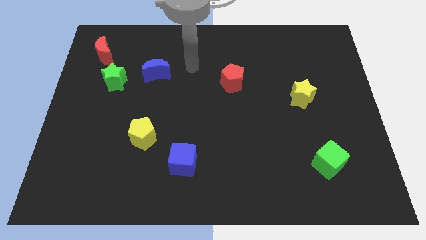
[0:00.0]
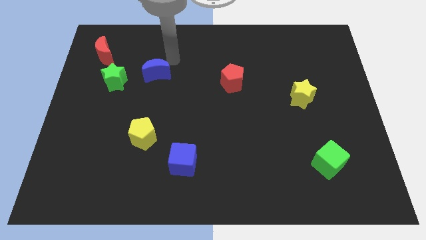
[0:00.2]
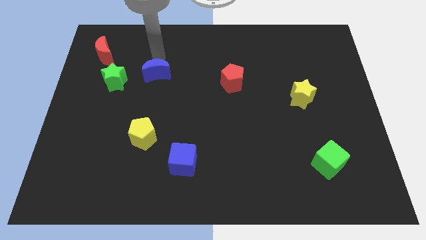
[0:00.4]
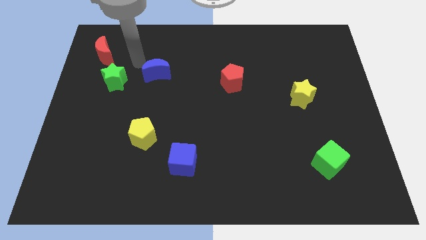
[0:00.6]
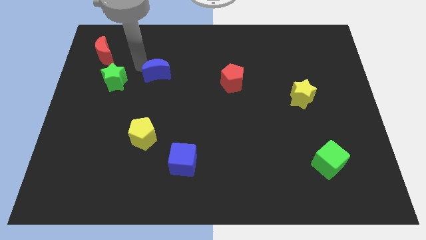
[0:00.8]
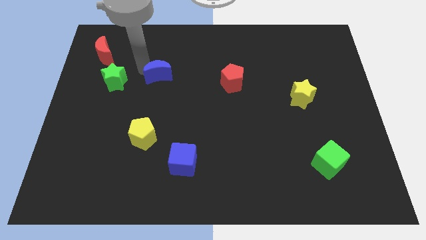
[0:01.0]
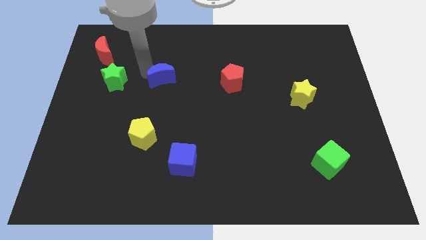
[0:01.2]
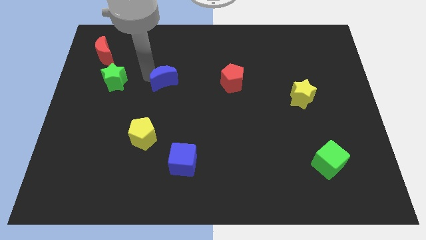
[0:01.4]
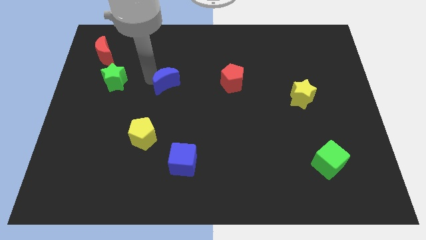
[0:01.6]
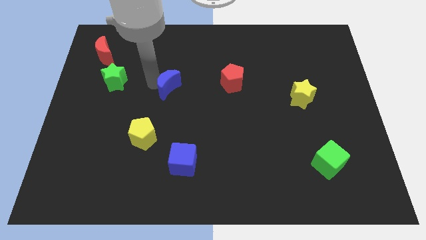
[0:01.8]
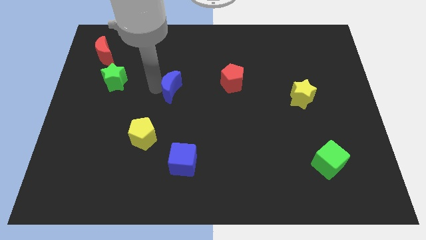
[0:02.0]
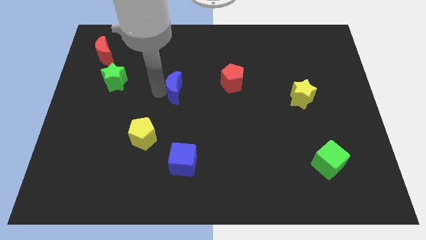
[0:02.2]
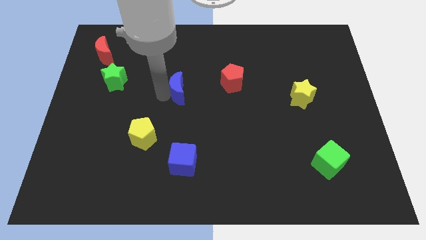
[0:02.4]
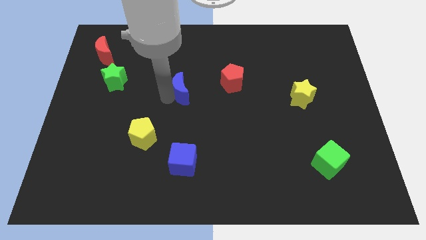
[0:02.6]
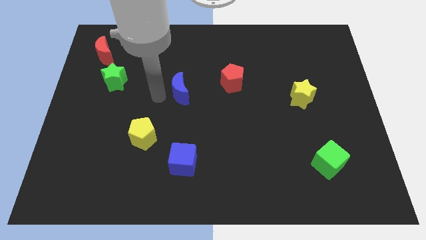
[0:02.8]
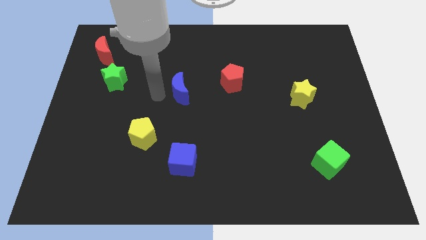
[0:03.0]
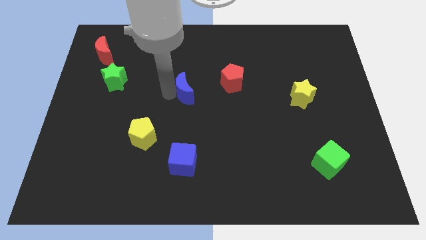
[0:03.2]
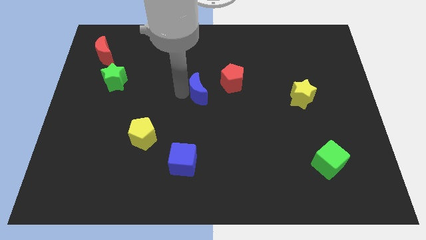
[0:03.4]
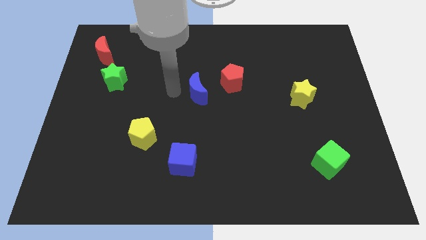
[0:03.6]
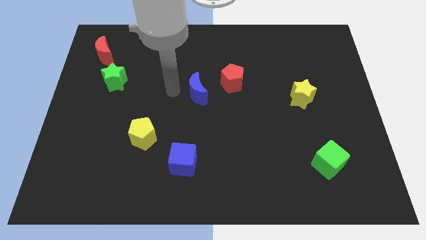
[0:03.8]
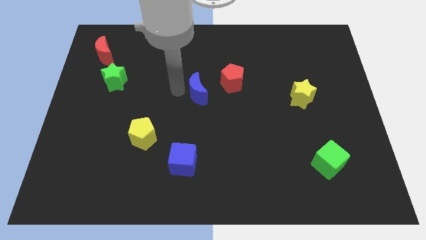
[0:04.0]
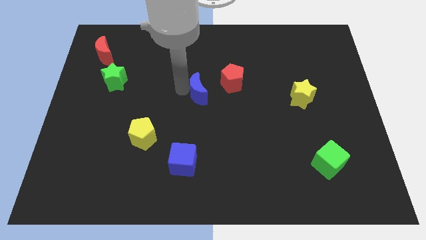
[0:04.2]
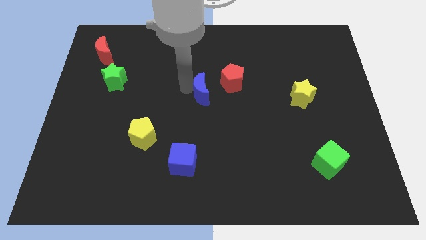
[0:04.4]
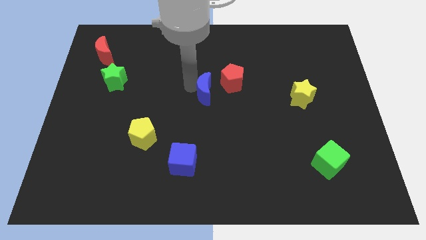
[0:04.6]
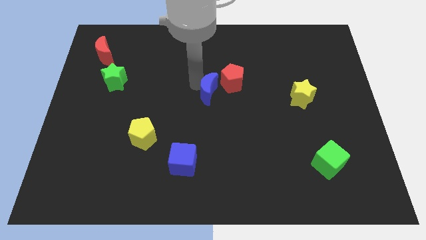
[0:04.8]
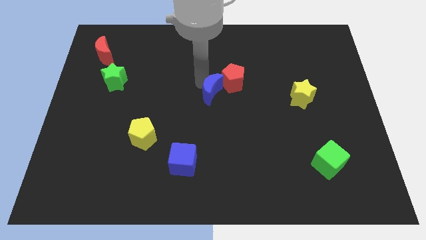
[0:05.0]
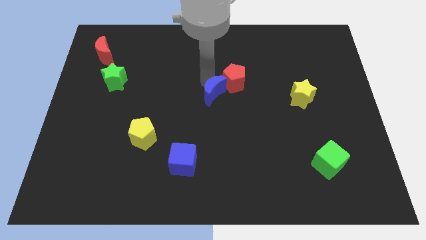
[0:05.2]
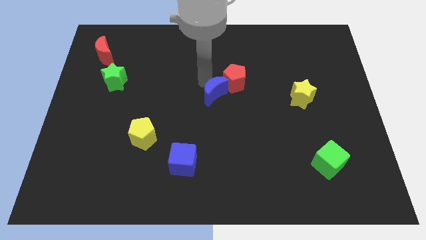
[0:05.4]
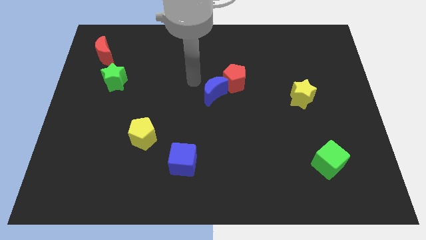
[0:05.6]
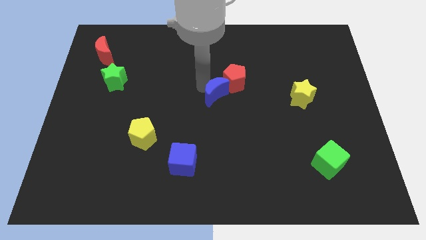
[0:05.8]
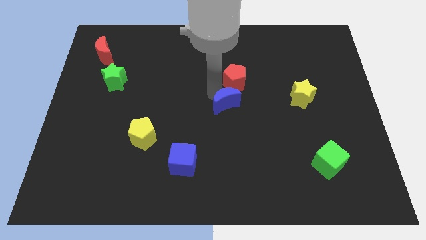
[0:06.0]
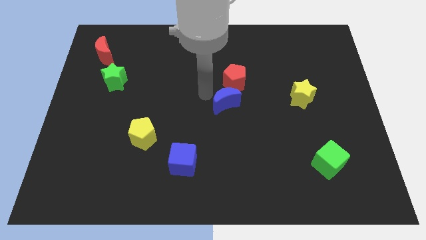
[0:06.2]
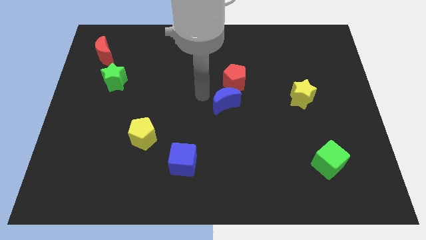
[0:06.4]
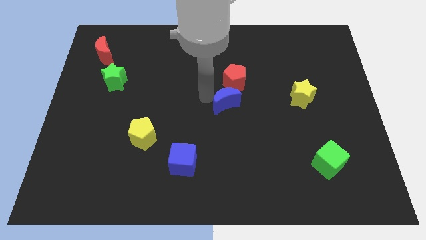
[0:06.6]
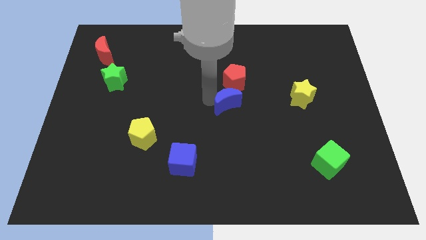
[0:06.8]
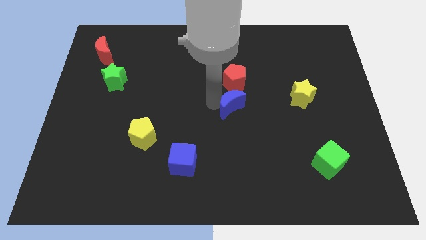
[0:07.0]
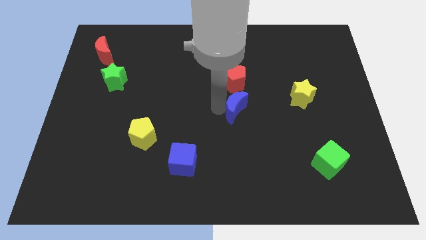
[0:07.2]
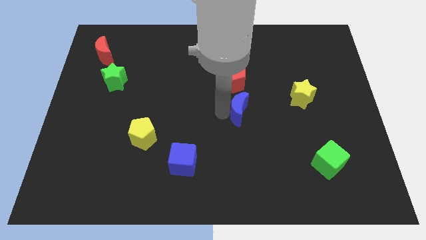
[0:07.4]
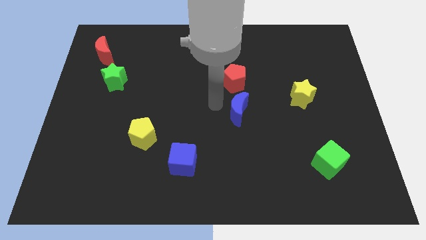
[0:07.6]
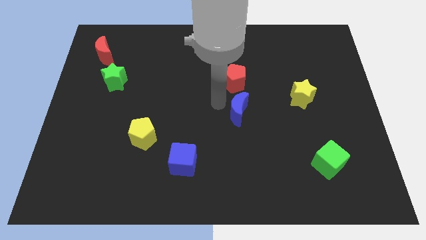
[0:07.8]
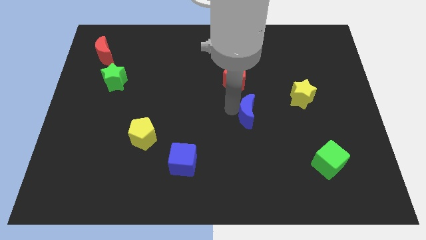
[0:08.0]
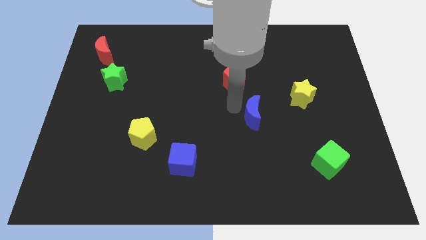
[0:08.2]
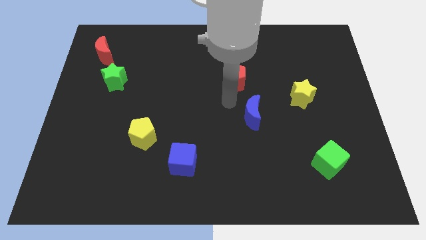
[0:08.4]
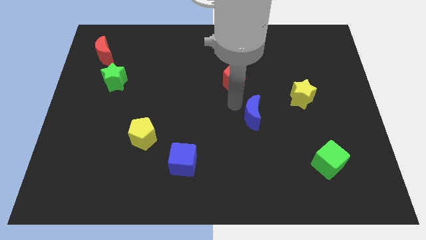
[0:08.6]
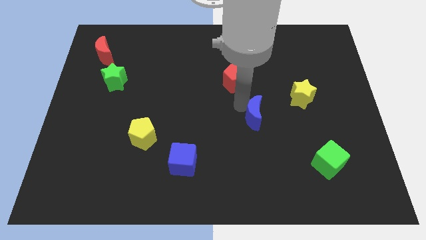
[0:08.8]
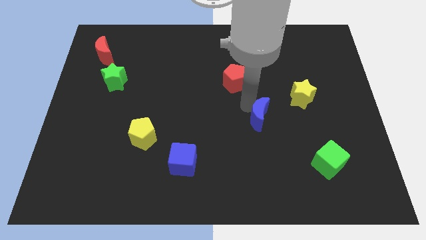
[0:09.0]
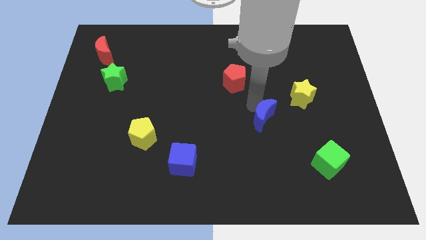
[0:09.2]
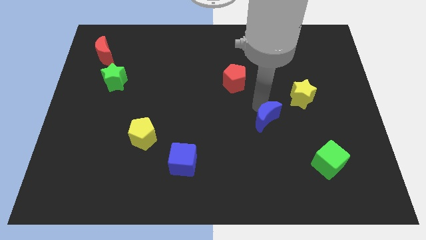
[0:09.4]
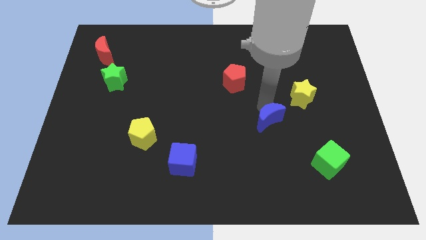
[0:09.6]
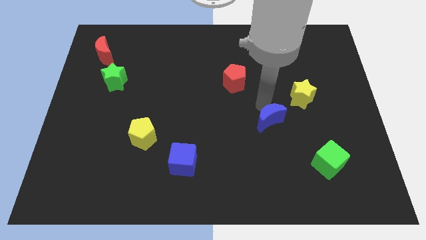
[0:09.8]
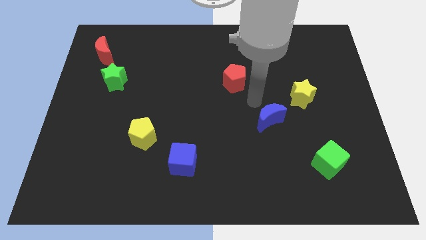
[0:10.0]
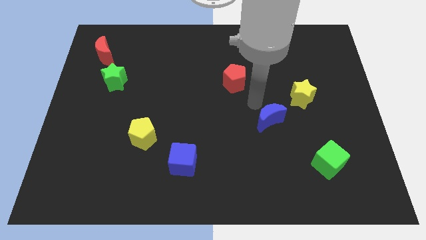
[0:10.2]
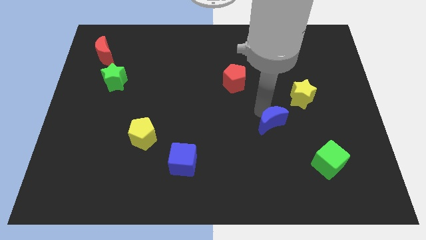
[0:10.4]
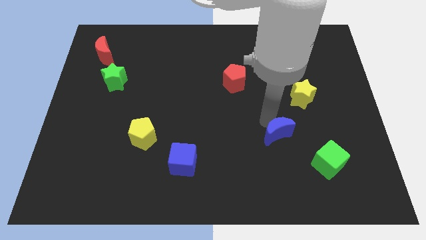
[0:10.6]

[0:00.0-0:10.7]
put the blue moon to the top left of the green cube

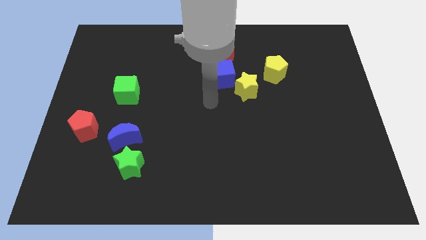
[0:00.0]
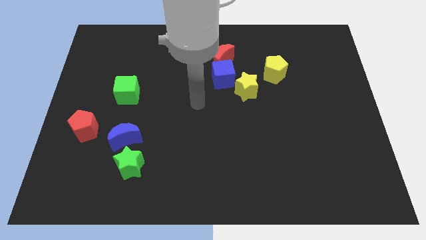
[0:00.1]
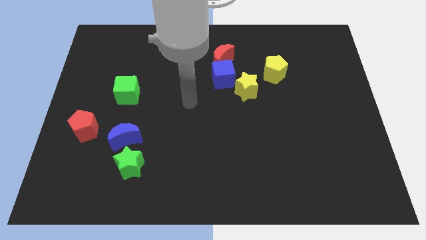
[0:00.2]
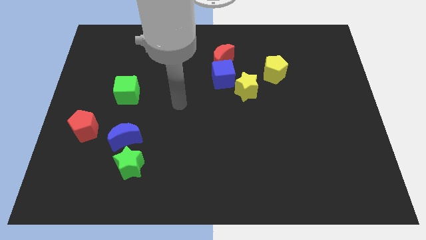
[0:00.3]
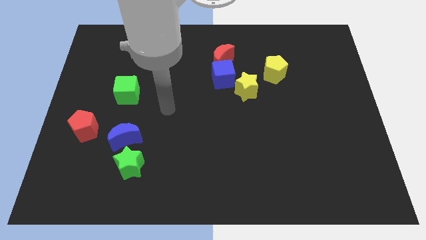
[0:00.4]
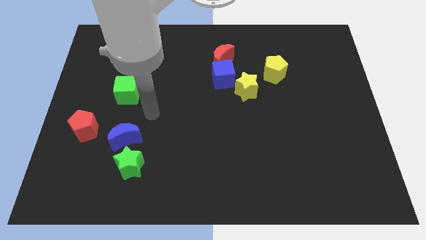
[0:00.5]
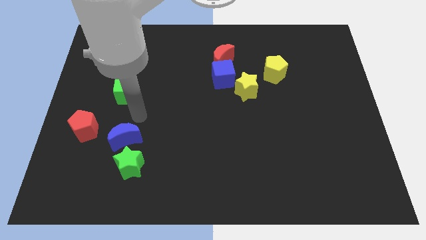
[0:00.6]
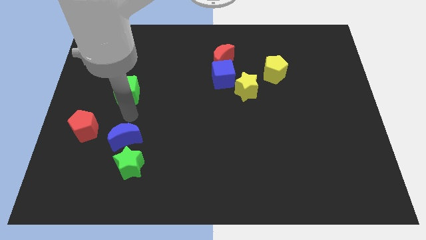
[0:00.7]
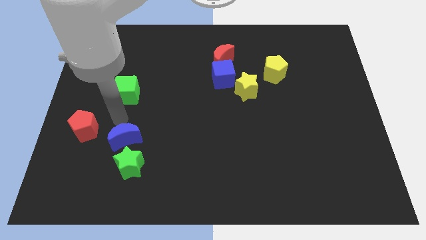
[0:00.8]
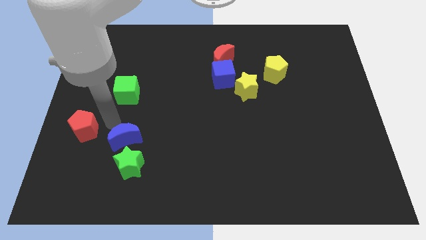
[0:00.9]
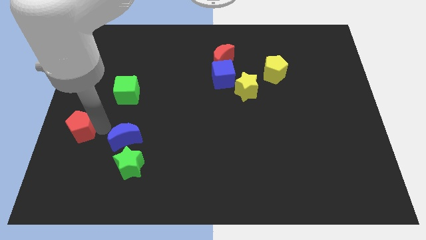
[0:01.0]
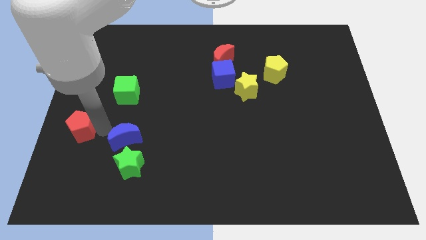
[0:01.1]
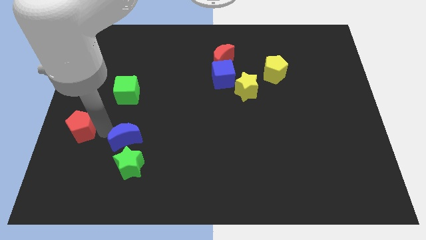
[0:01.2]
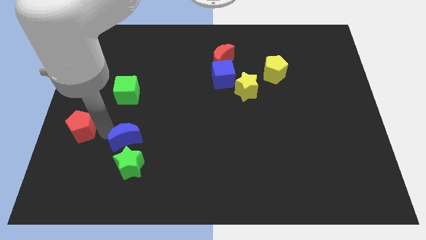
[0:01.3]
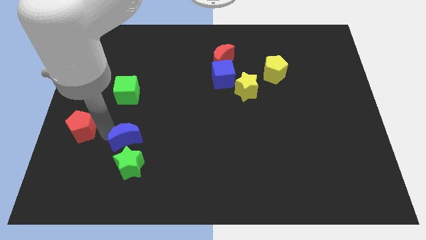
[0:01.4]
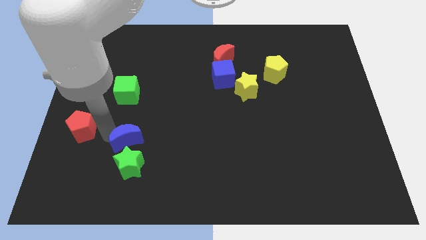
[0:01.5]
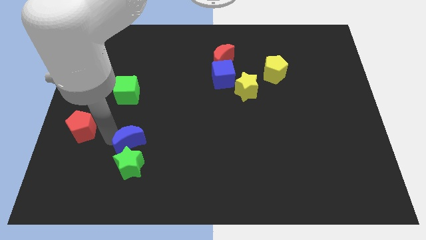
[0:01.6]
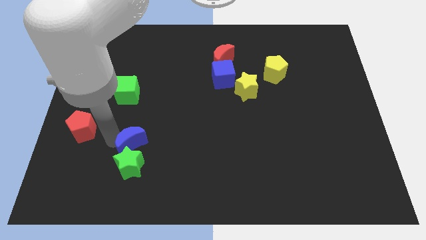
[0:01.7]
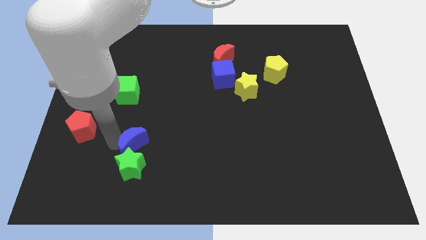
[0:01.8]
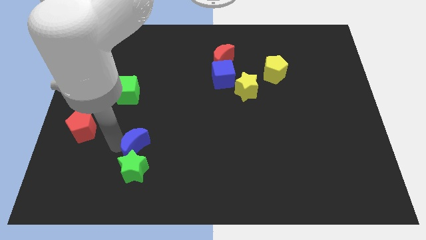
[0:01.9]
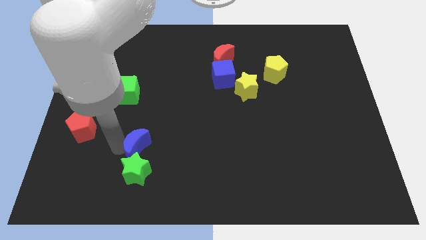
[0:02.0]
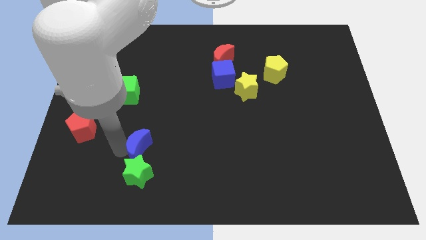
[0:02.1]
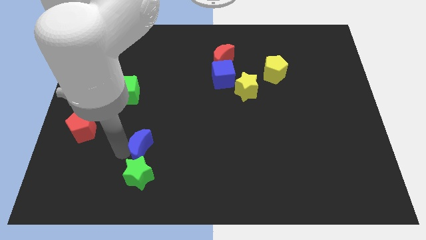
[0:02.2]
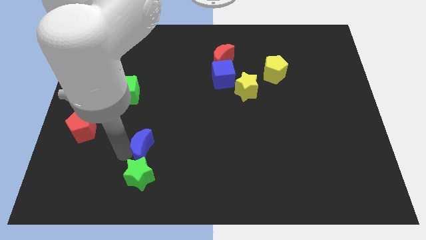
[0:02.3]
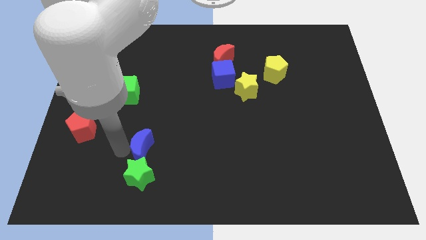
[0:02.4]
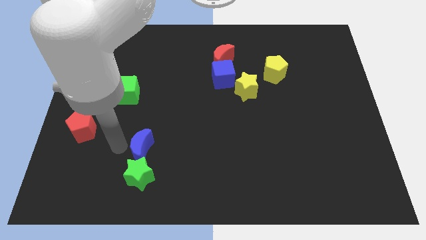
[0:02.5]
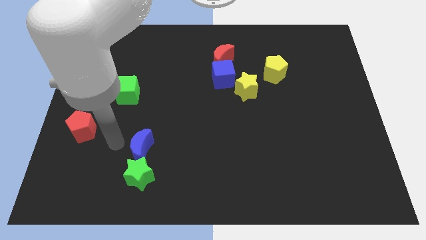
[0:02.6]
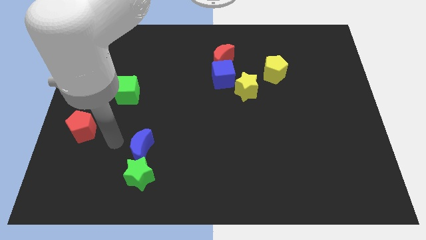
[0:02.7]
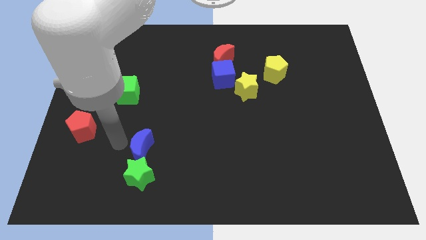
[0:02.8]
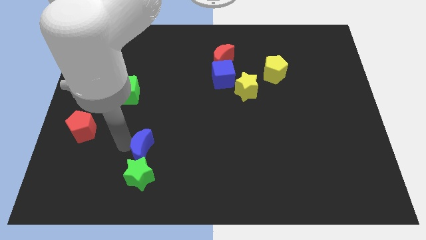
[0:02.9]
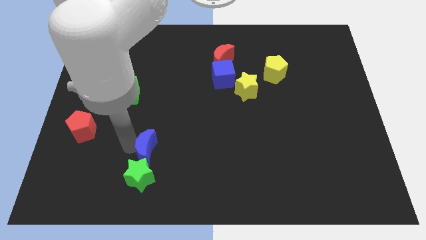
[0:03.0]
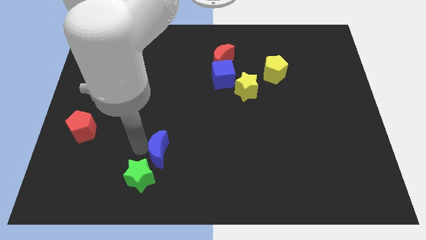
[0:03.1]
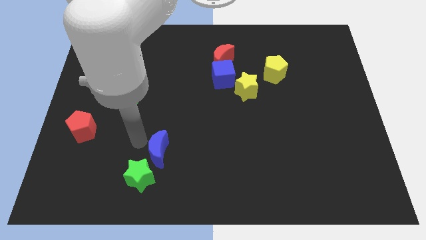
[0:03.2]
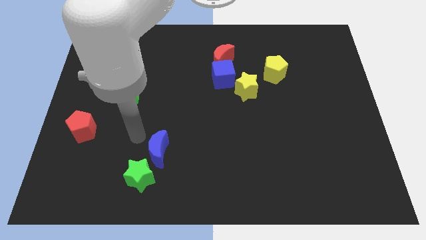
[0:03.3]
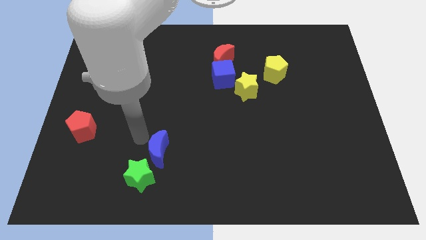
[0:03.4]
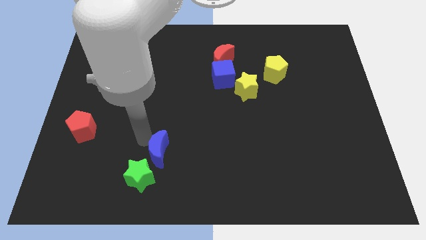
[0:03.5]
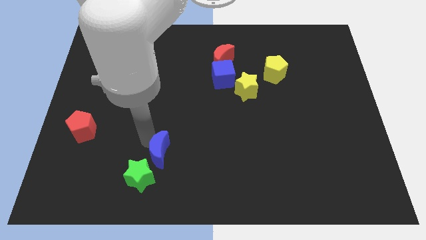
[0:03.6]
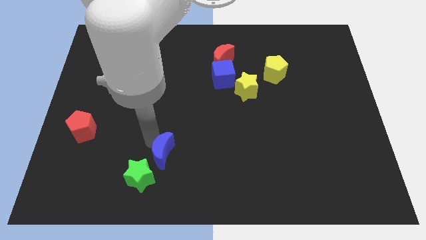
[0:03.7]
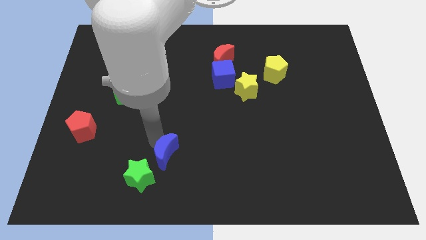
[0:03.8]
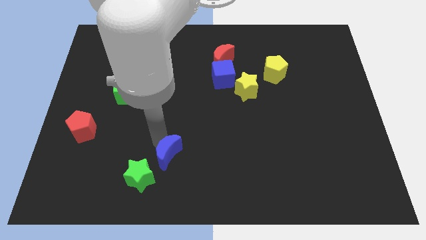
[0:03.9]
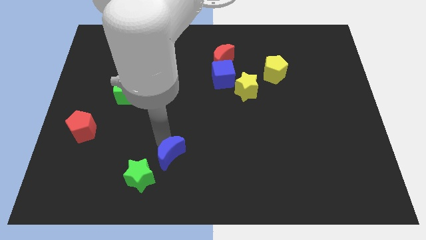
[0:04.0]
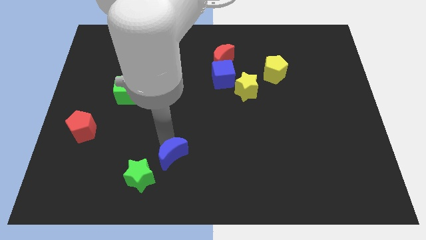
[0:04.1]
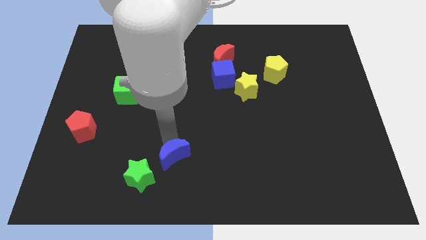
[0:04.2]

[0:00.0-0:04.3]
slide the blue moon just right of the green star
